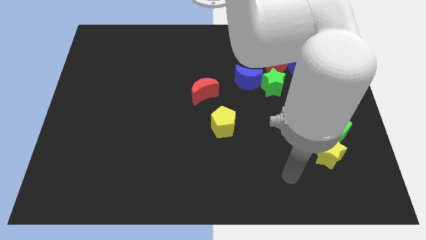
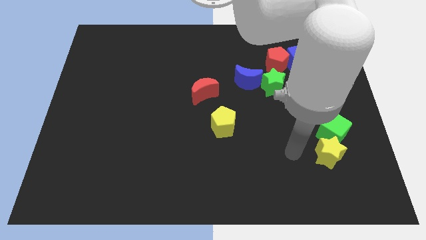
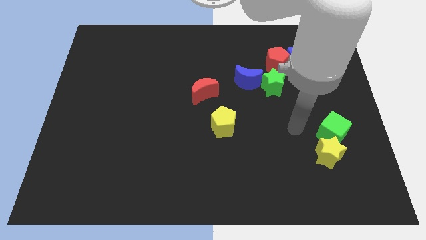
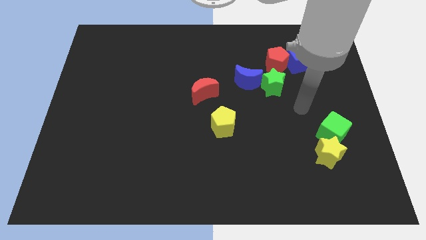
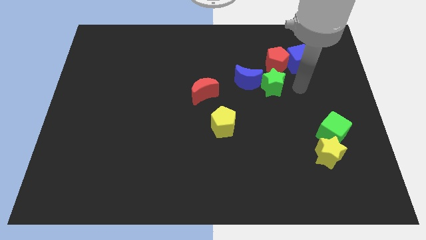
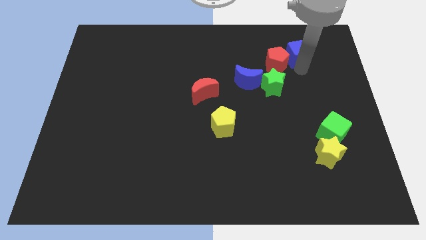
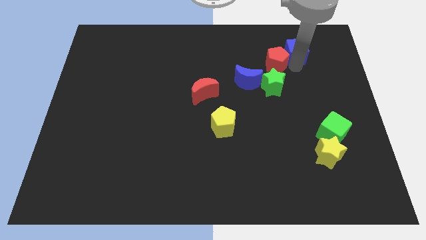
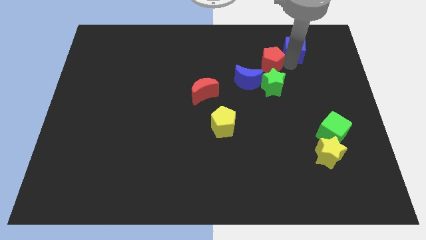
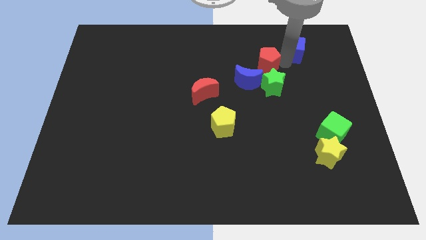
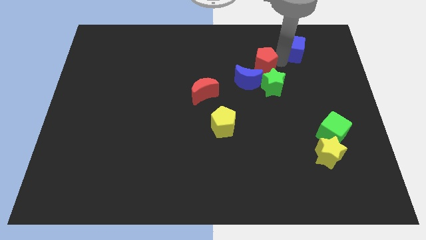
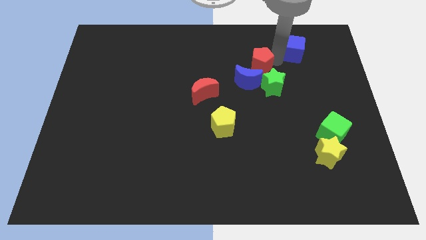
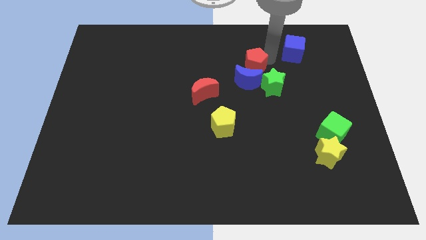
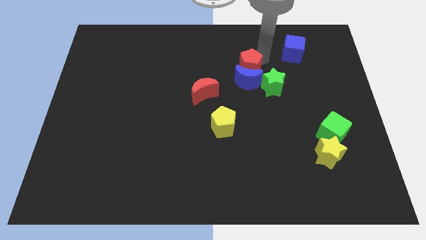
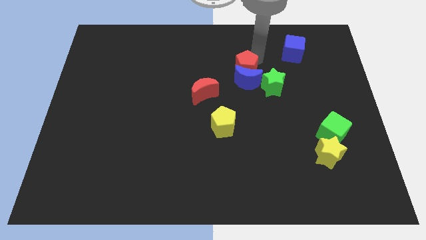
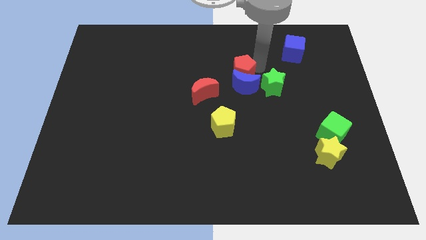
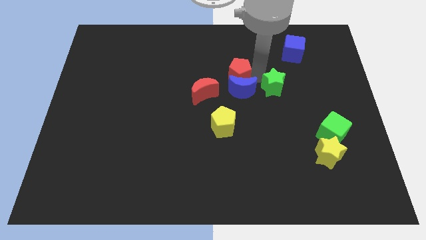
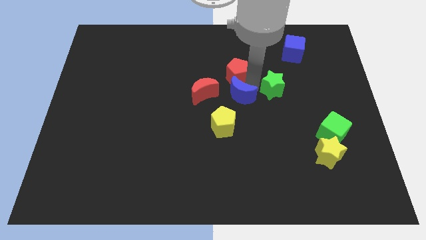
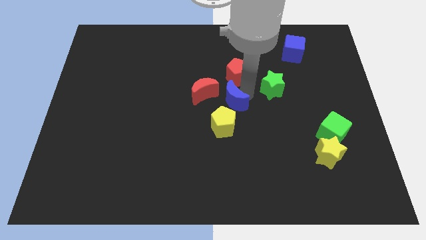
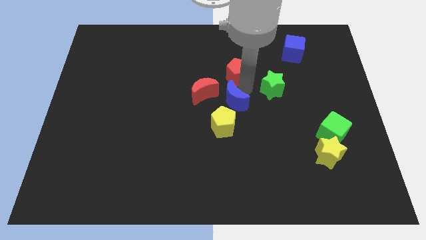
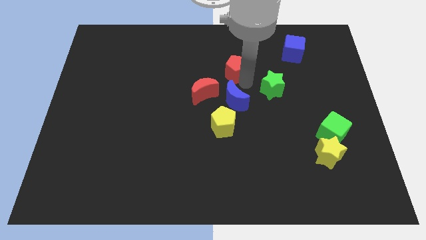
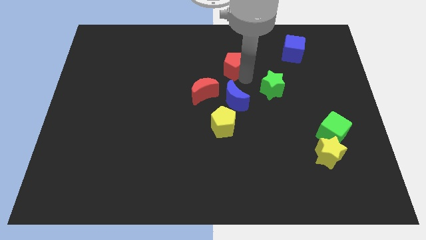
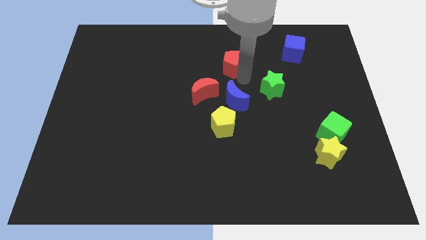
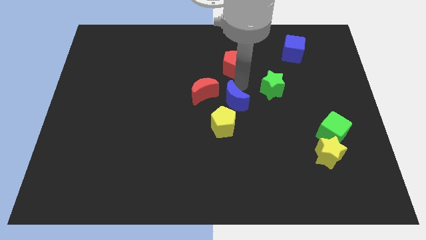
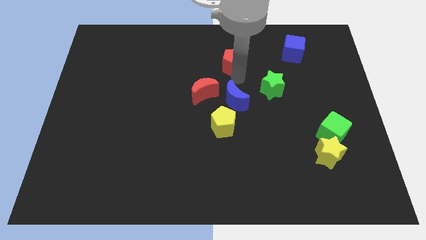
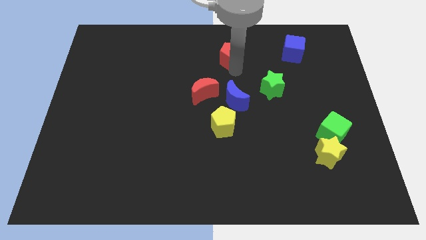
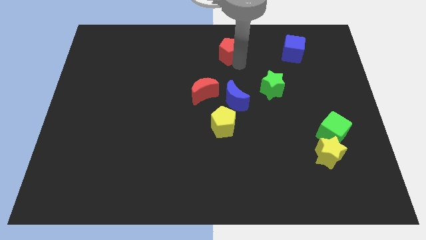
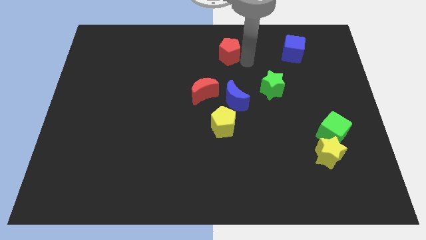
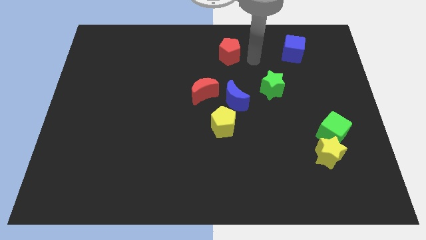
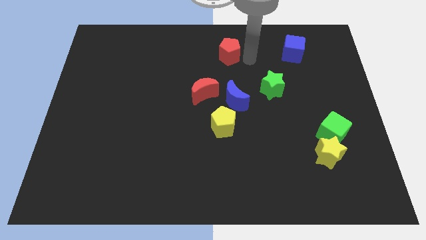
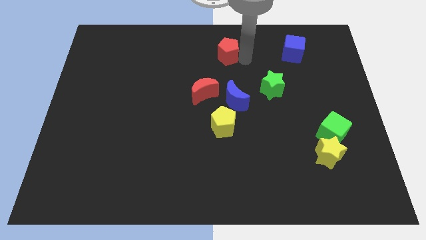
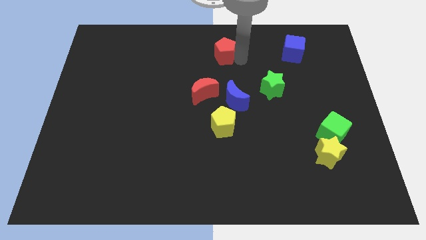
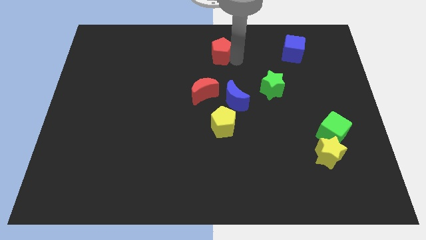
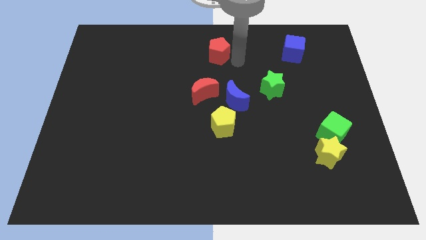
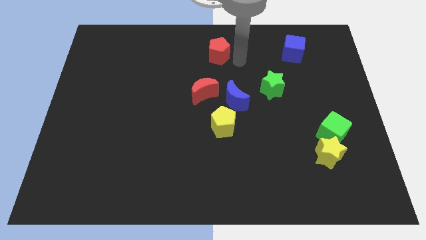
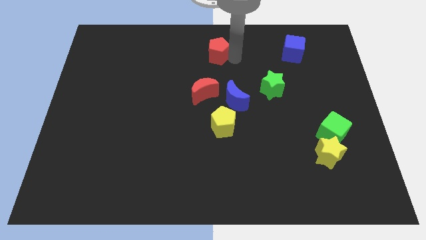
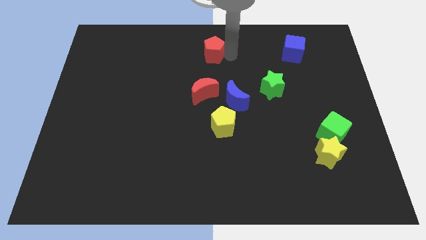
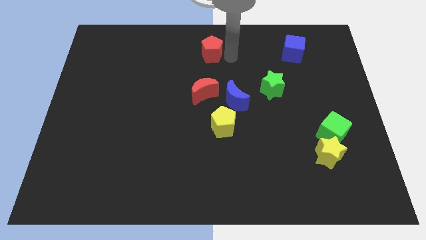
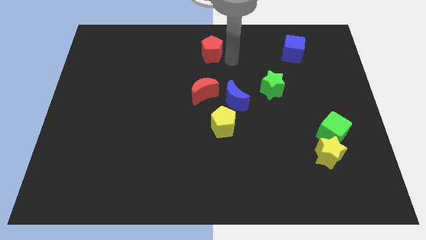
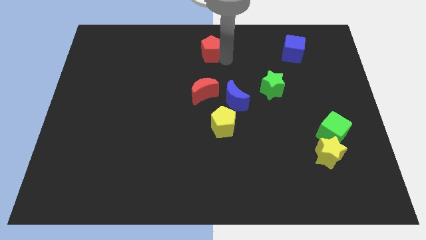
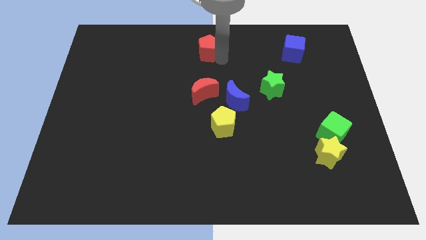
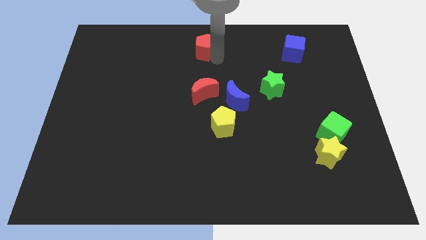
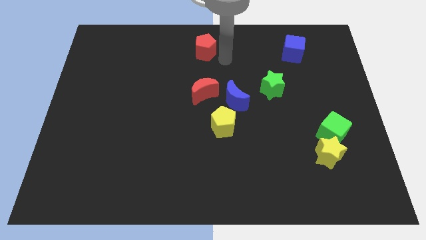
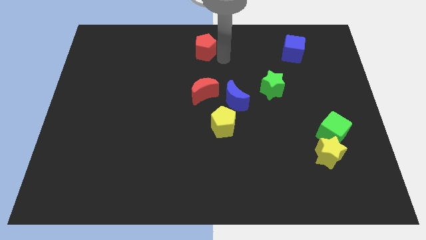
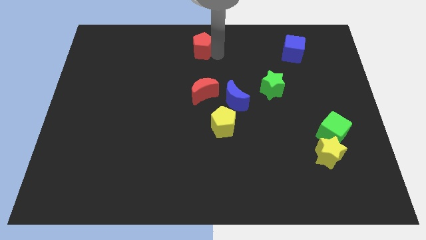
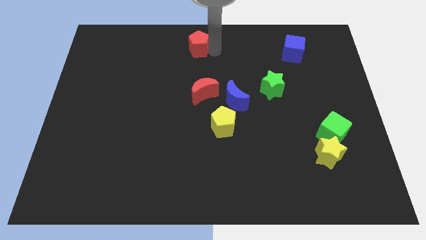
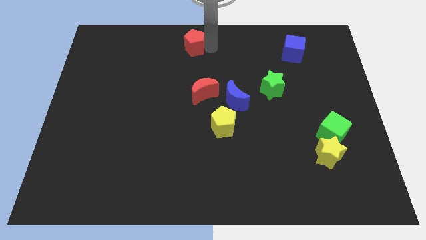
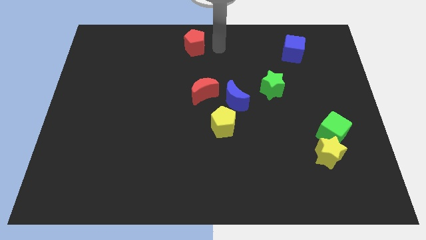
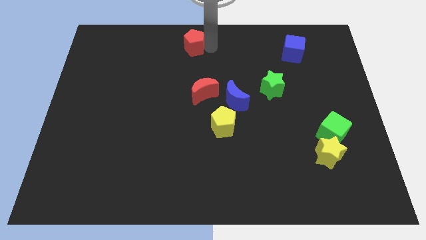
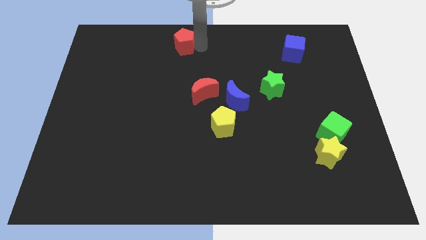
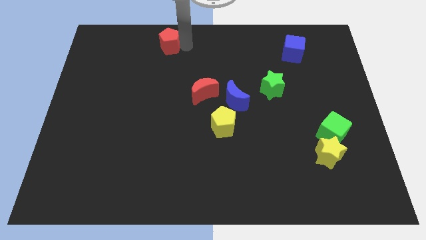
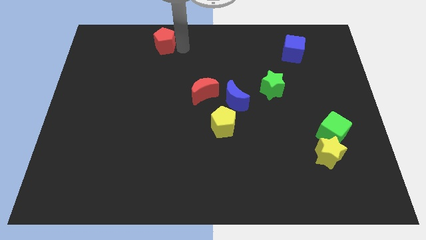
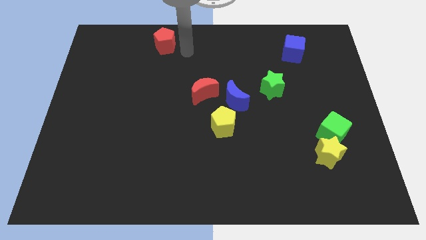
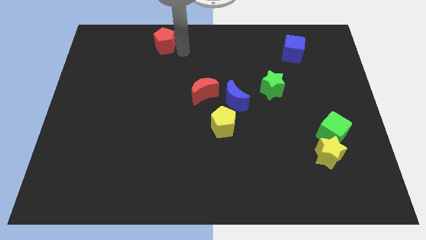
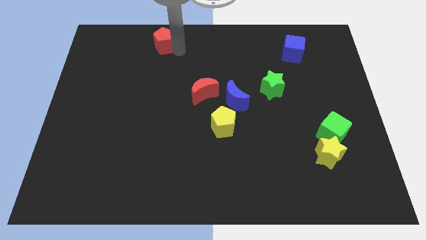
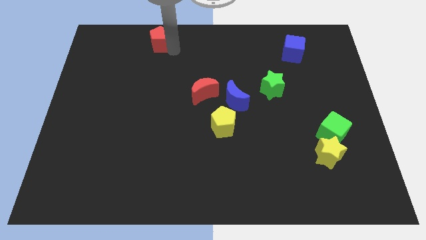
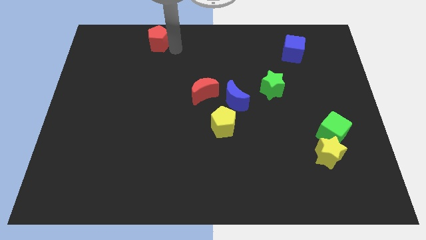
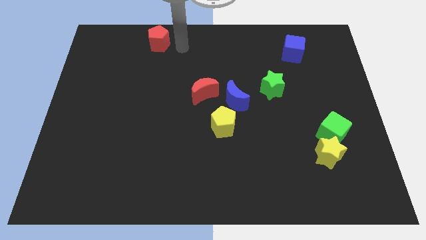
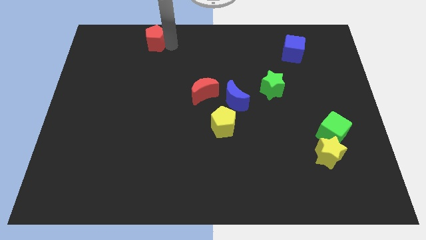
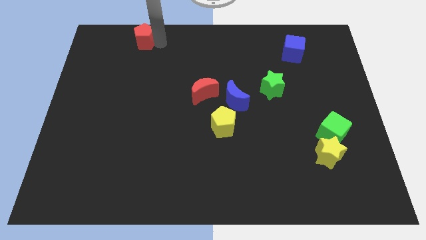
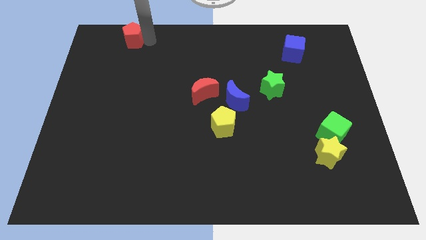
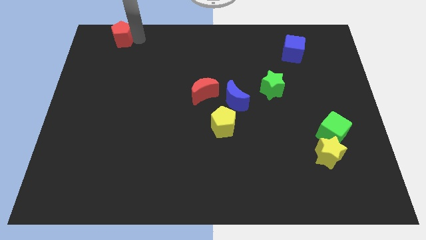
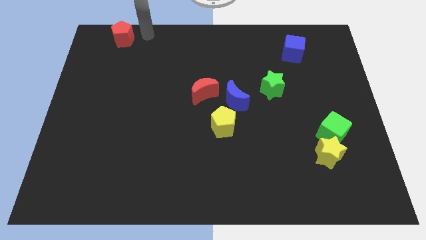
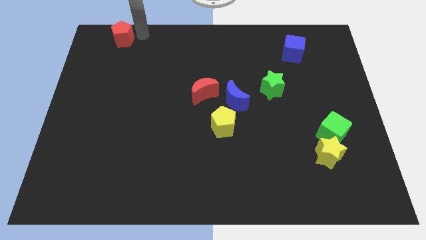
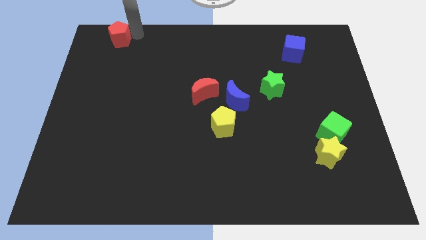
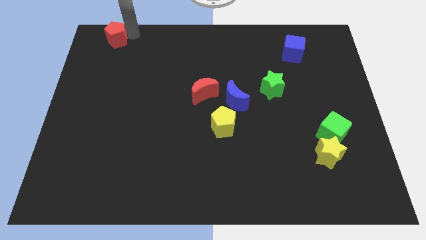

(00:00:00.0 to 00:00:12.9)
put the red pentagon to the top left
